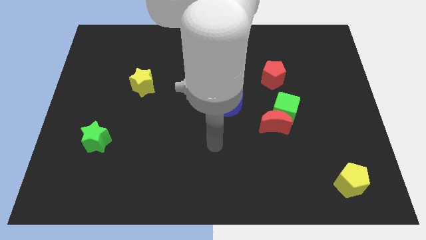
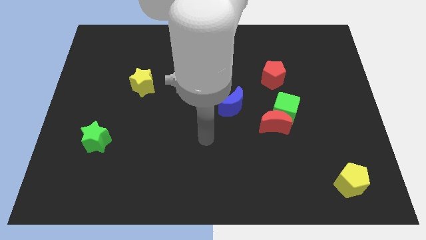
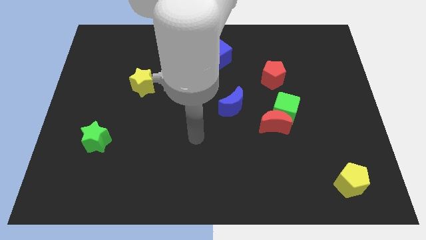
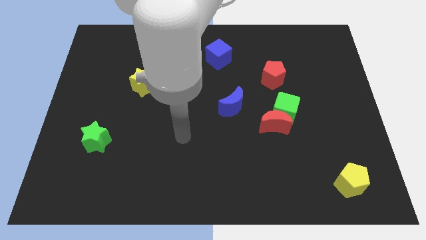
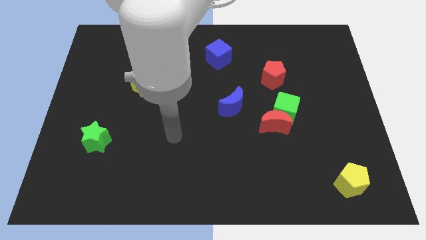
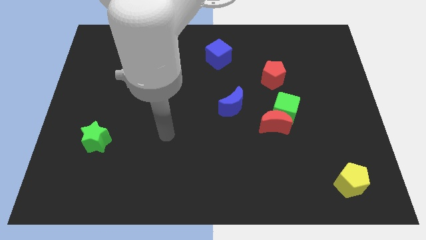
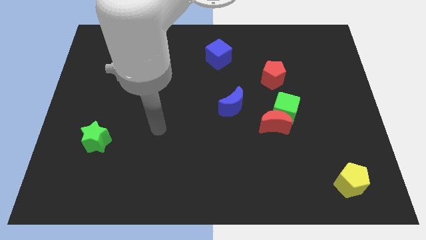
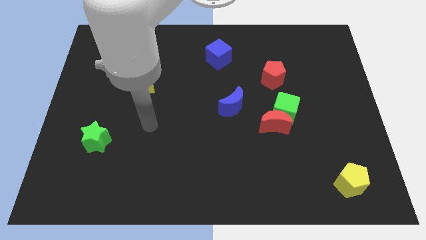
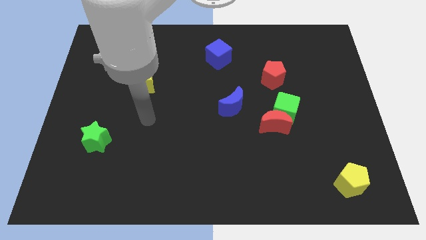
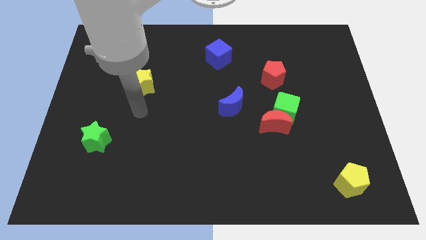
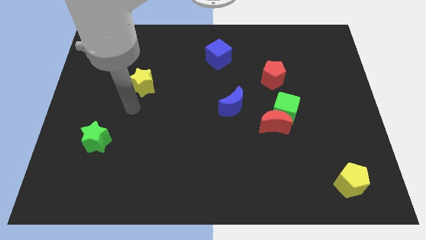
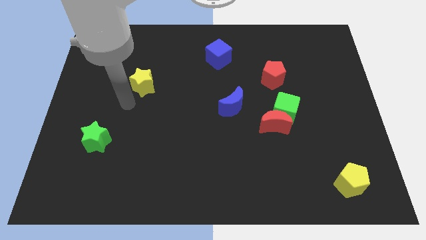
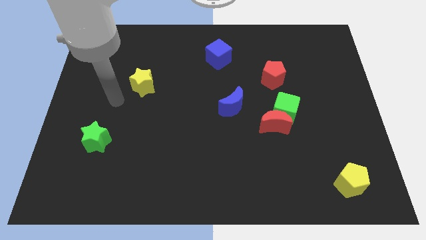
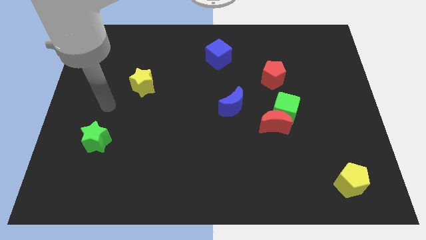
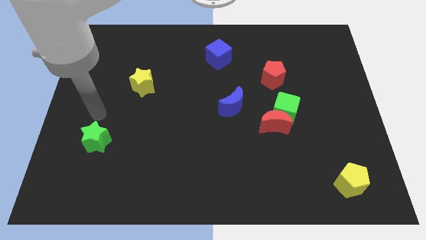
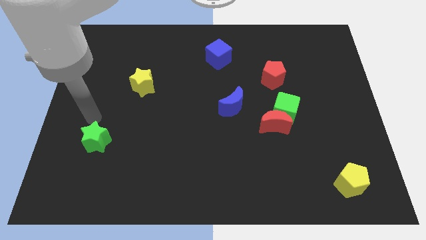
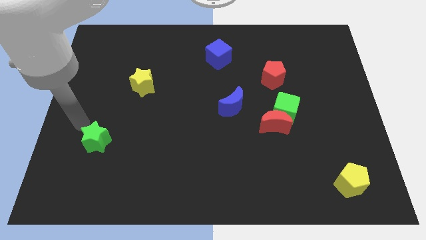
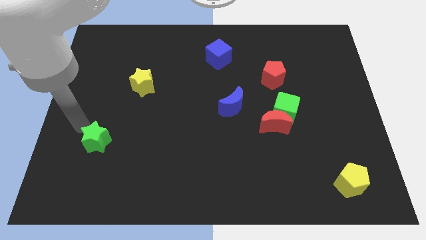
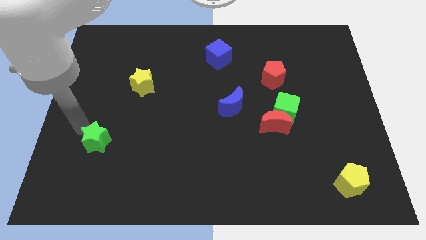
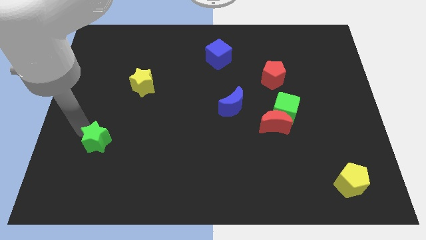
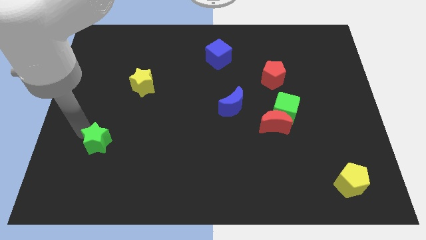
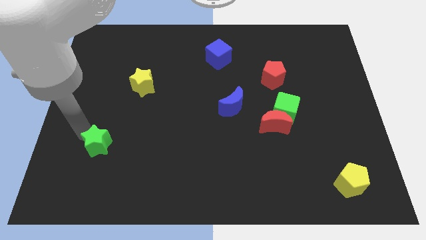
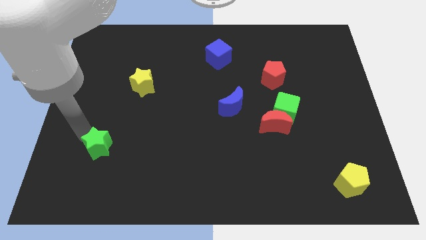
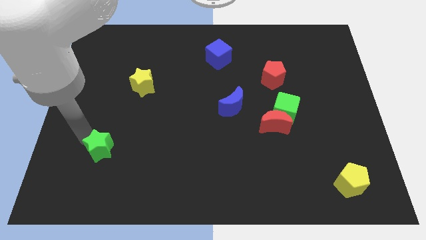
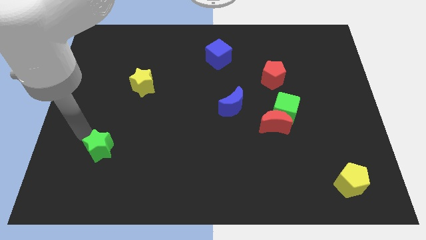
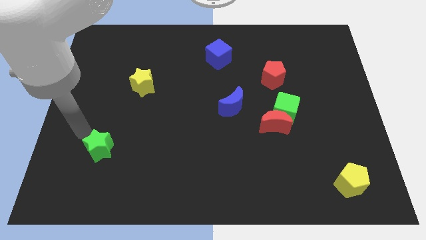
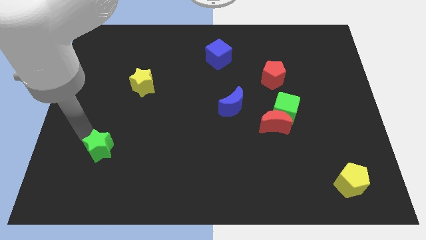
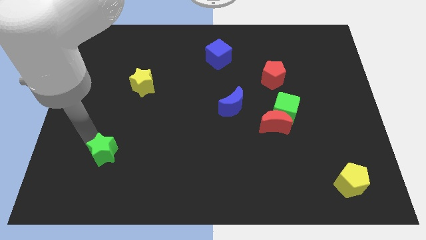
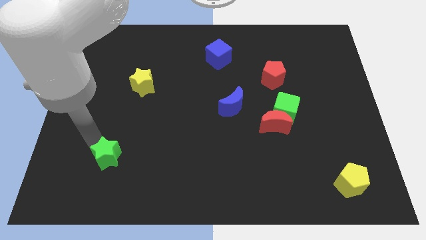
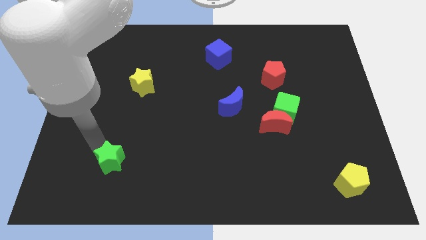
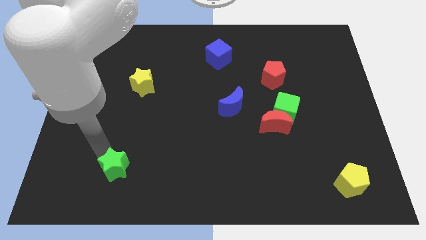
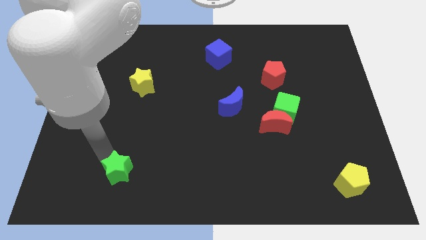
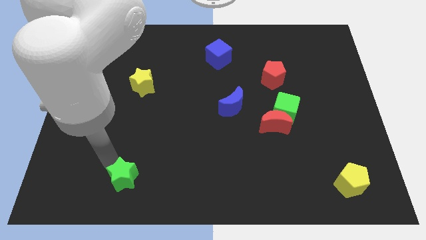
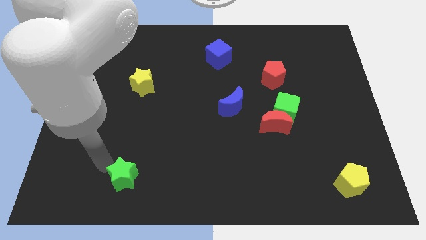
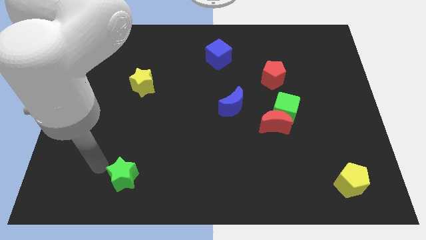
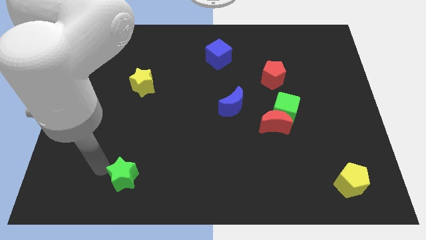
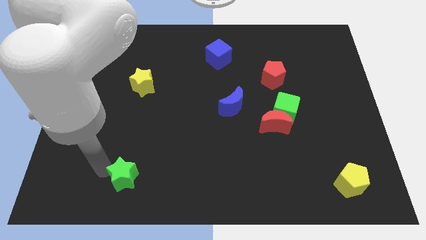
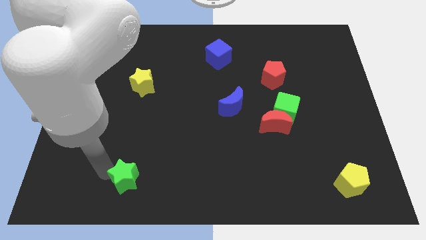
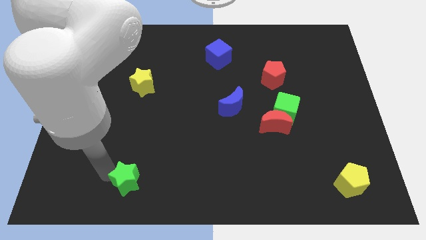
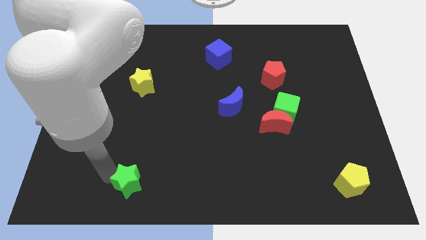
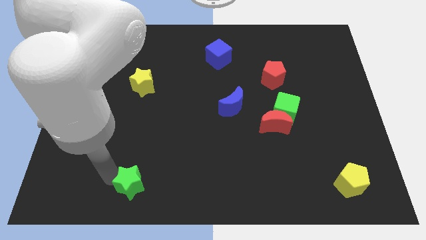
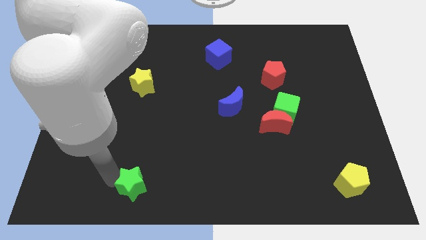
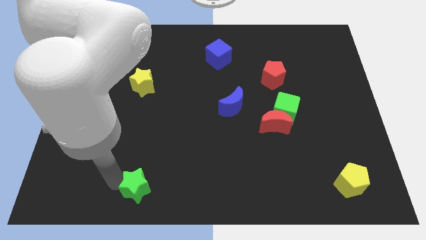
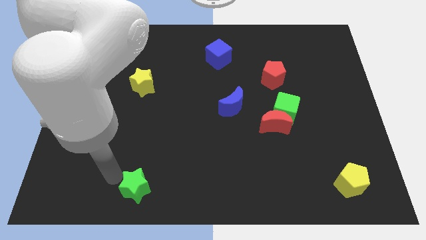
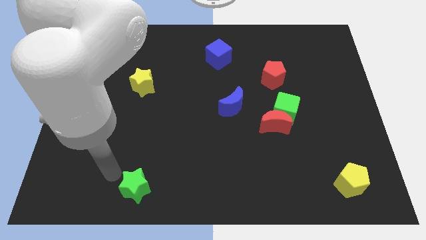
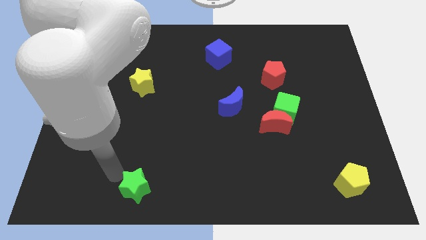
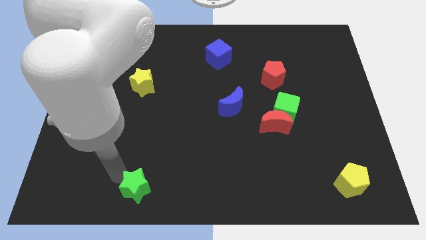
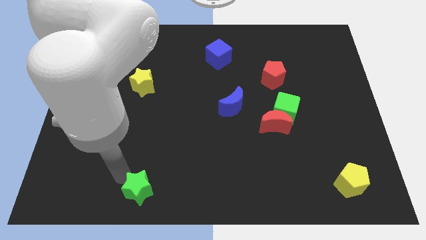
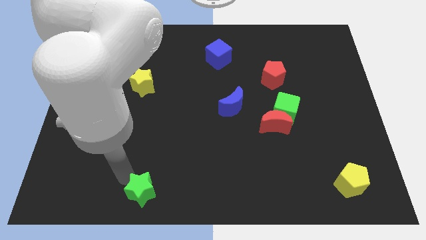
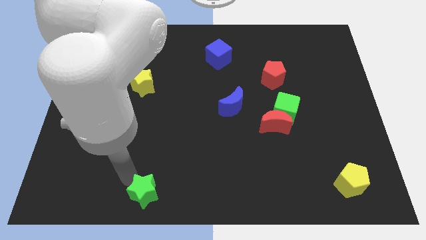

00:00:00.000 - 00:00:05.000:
push the green star to the bottom side

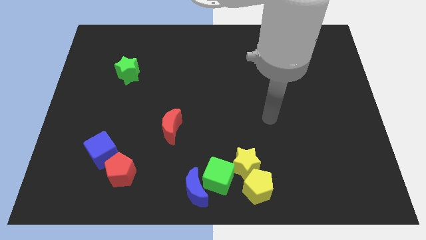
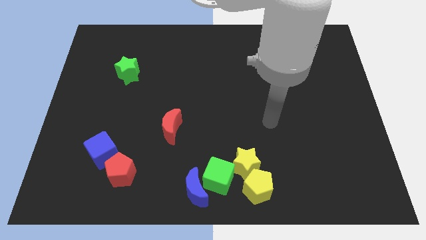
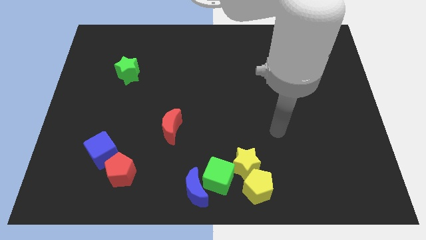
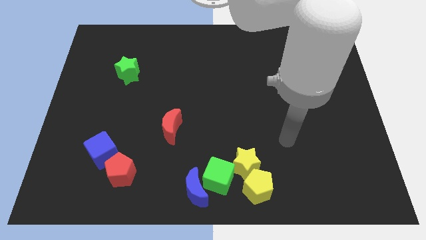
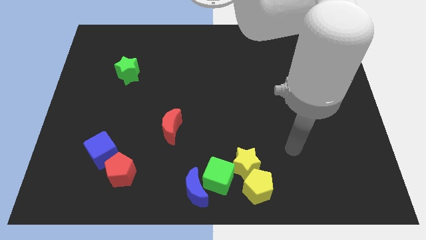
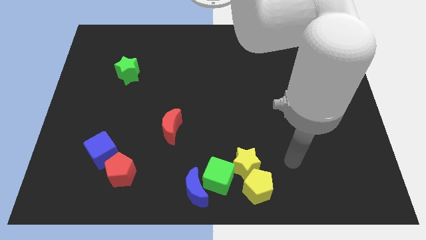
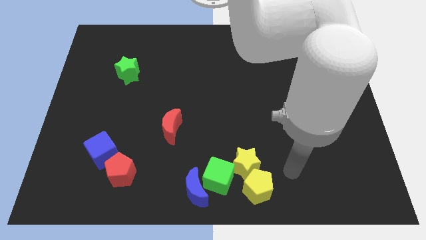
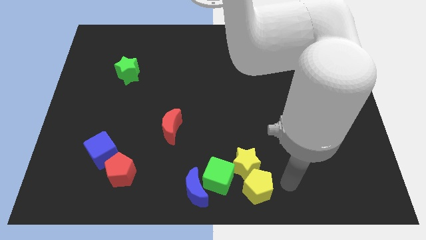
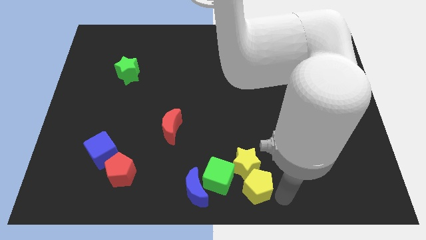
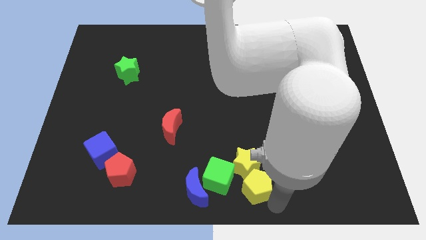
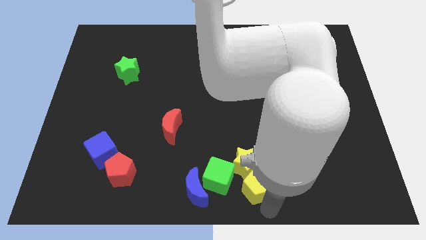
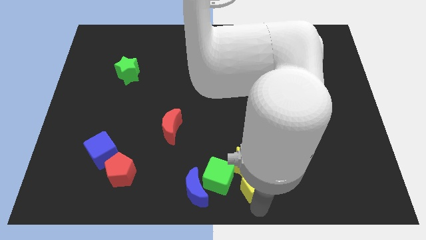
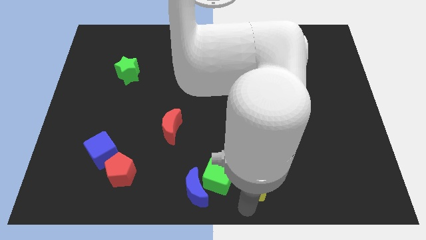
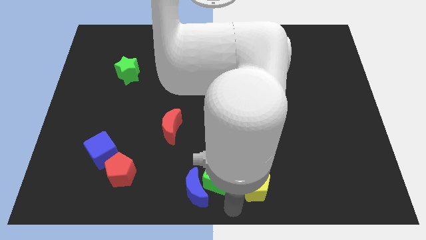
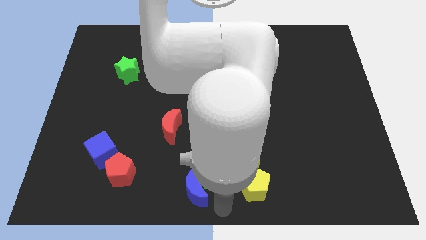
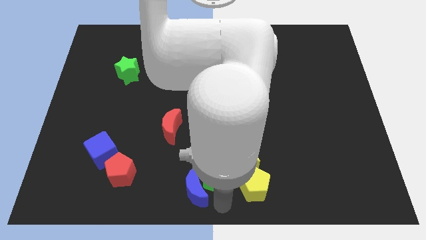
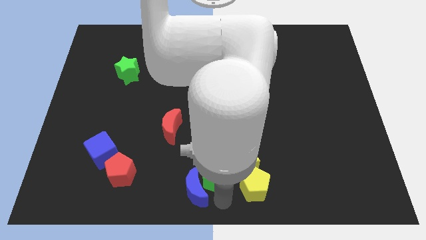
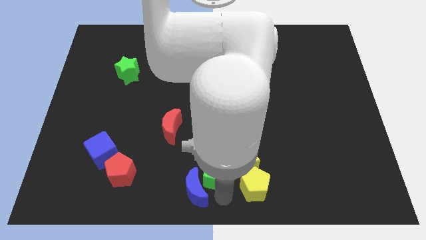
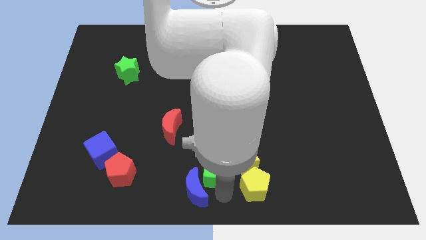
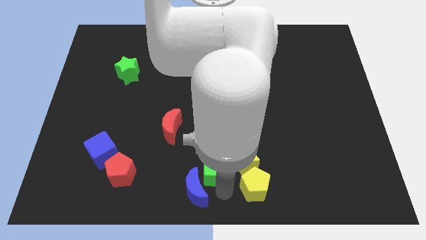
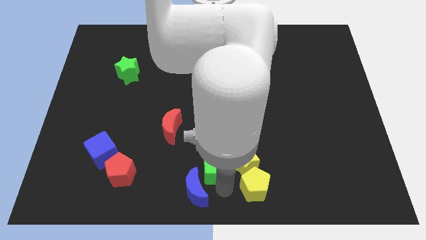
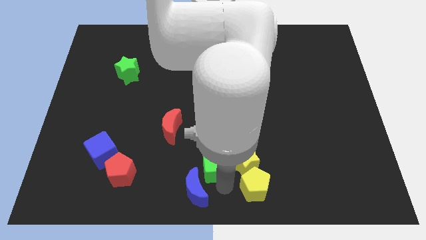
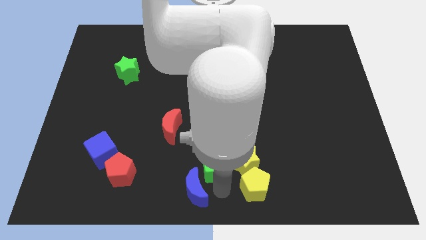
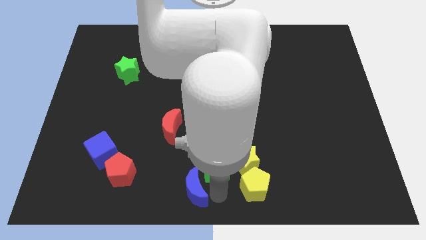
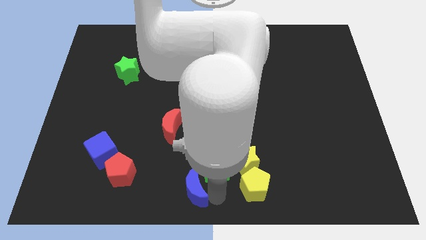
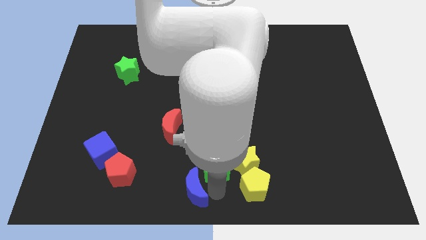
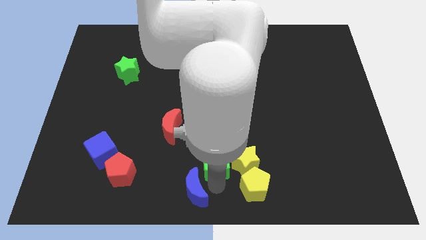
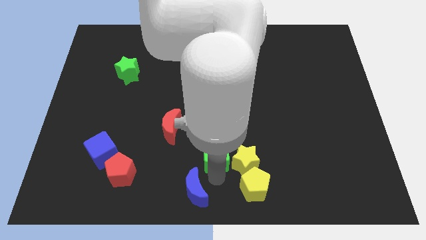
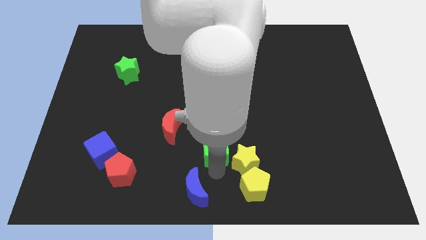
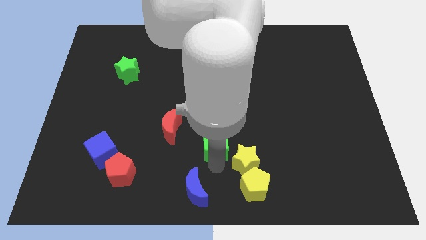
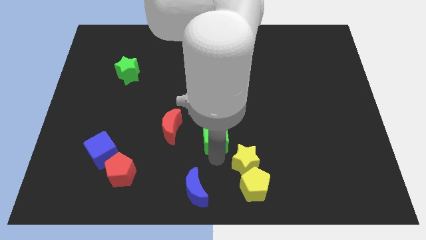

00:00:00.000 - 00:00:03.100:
move the green cube to the middle
